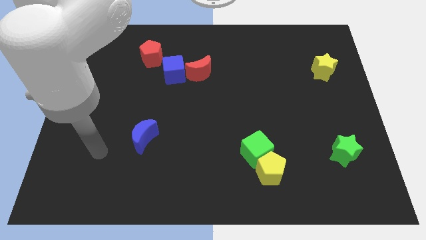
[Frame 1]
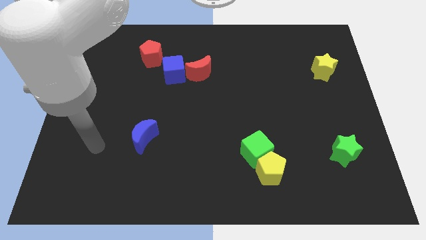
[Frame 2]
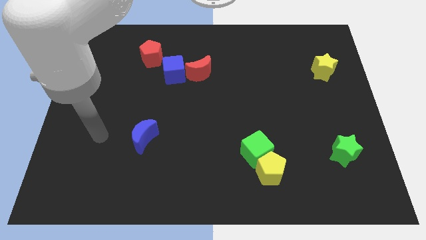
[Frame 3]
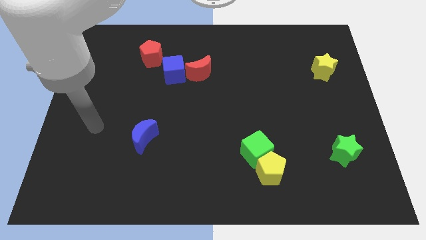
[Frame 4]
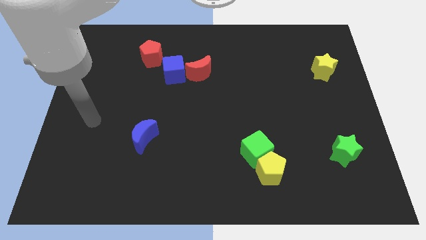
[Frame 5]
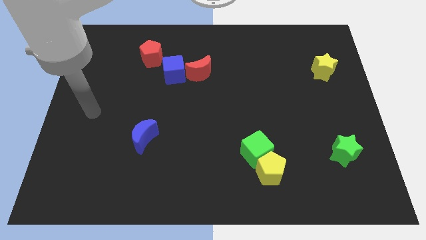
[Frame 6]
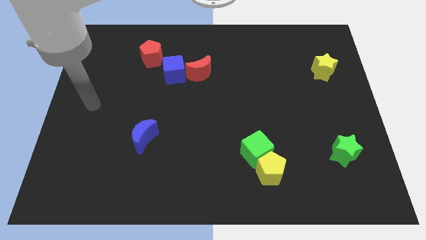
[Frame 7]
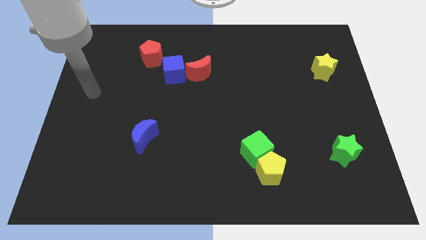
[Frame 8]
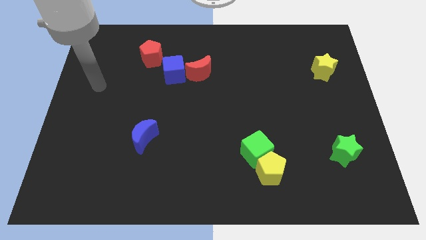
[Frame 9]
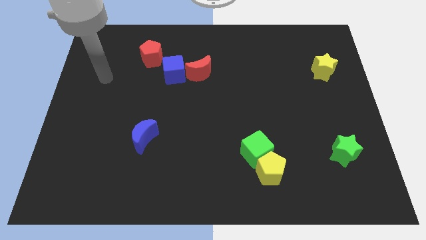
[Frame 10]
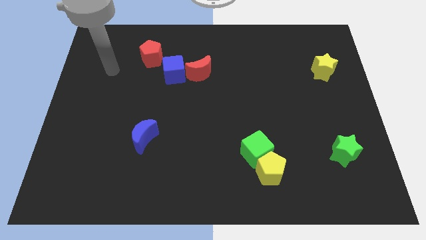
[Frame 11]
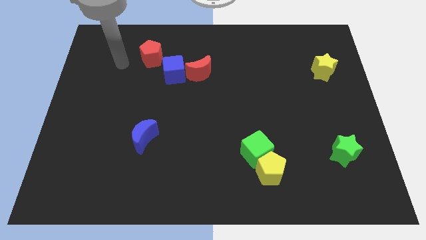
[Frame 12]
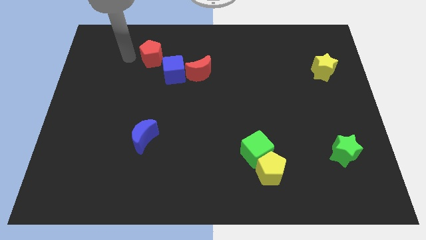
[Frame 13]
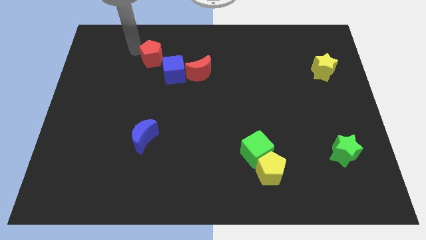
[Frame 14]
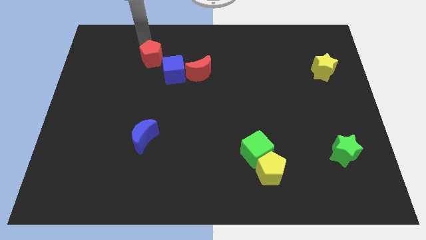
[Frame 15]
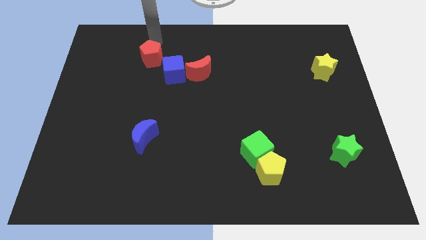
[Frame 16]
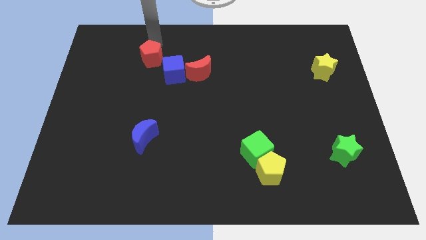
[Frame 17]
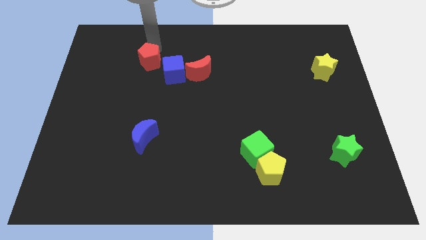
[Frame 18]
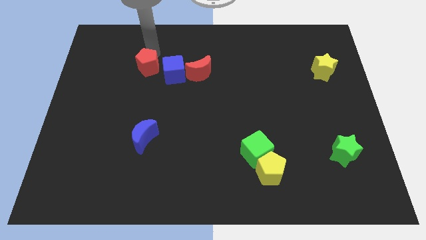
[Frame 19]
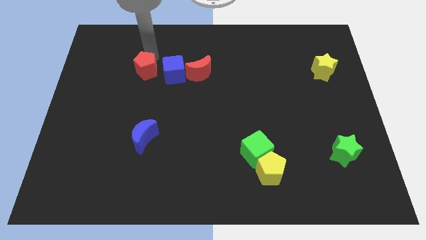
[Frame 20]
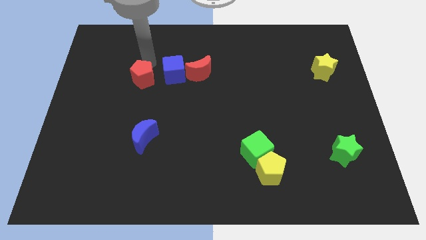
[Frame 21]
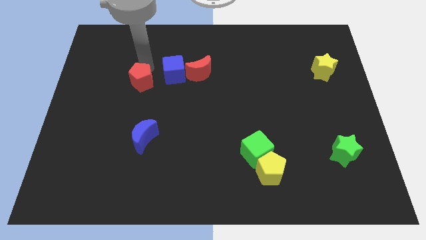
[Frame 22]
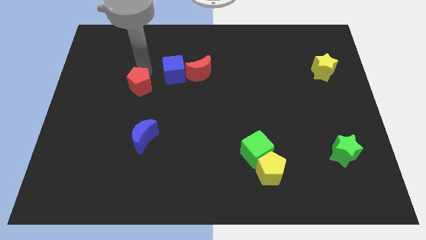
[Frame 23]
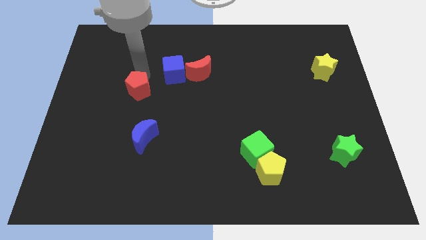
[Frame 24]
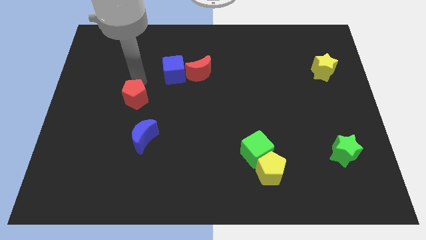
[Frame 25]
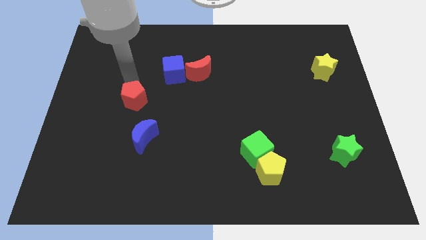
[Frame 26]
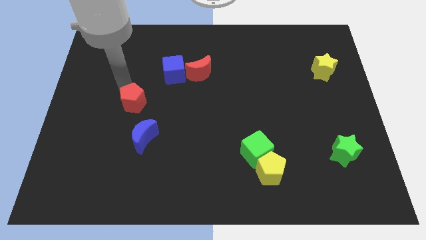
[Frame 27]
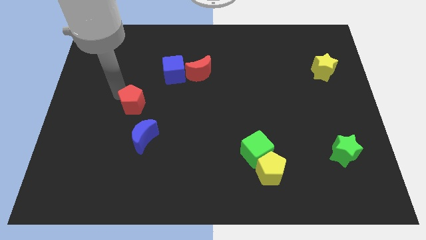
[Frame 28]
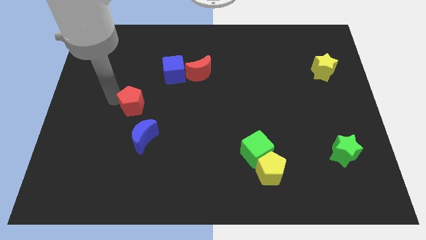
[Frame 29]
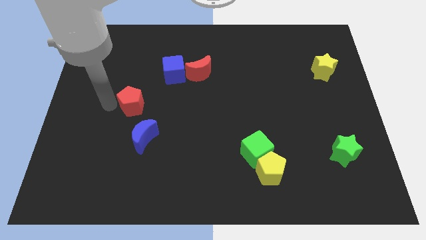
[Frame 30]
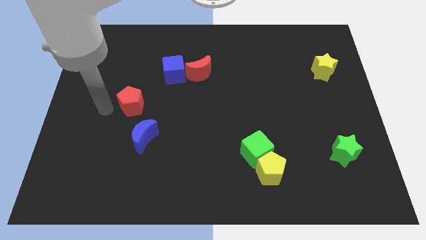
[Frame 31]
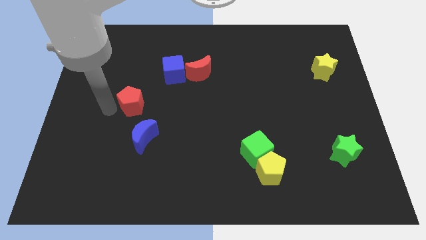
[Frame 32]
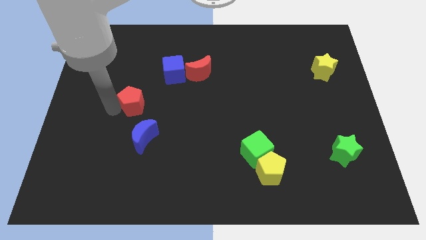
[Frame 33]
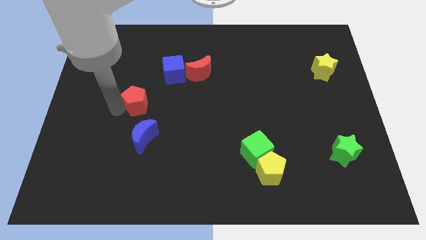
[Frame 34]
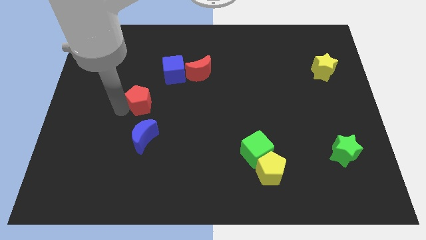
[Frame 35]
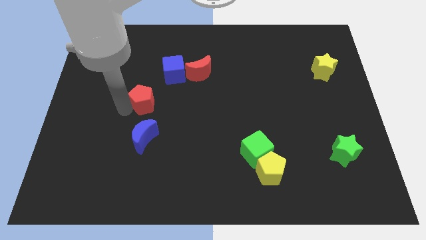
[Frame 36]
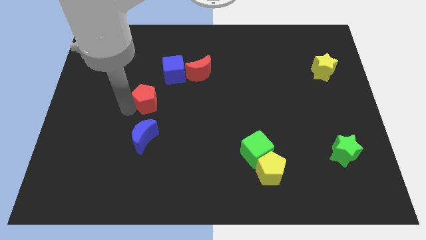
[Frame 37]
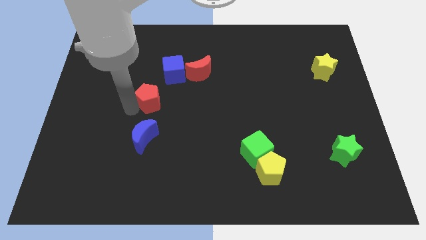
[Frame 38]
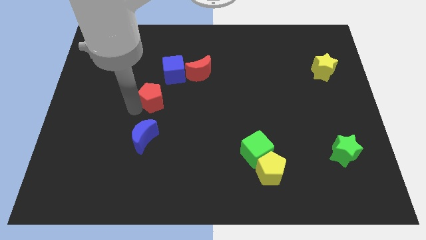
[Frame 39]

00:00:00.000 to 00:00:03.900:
move the red pentagon slightly down and to the right diagonally

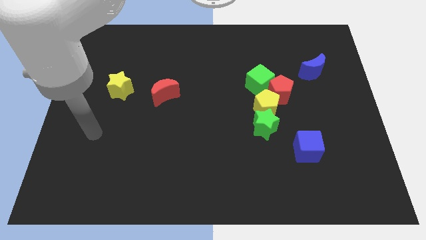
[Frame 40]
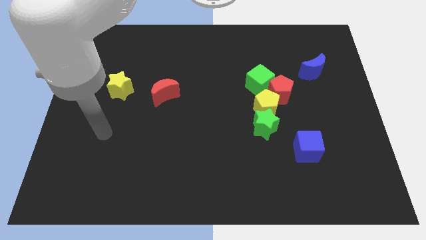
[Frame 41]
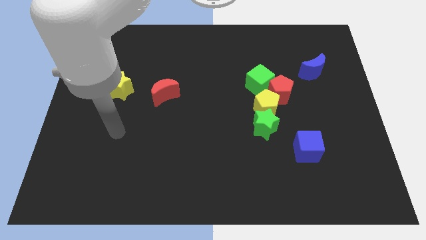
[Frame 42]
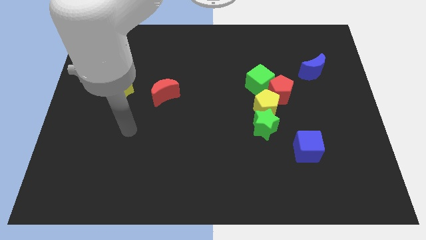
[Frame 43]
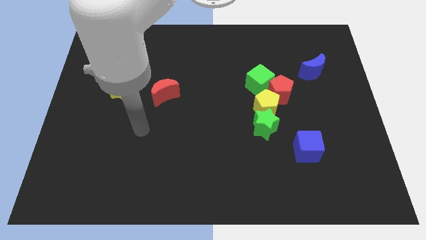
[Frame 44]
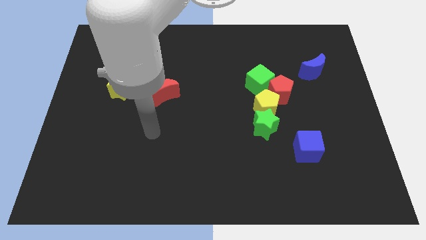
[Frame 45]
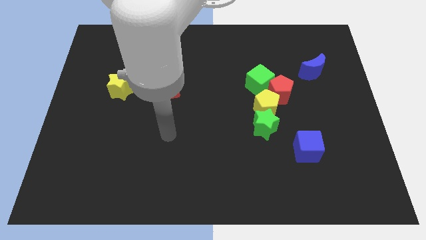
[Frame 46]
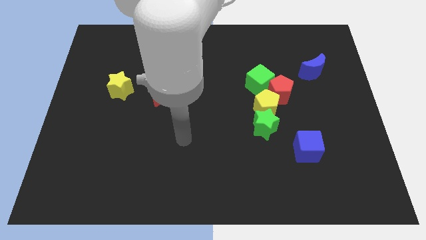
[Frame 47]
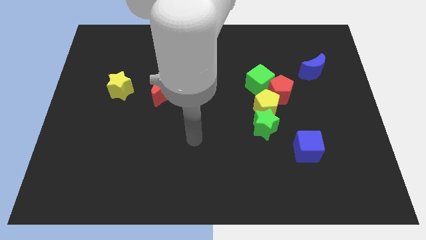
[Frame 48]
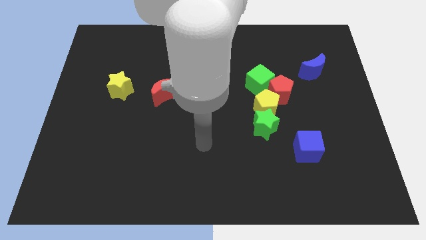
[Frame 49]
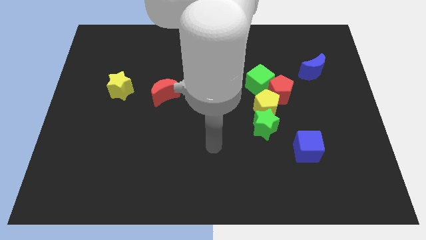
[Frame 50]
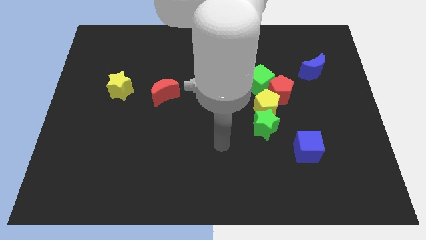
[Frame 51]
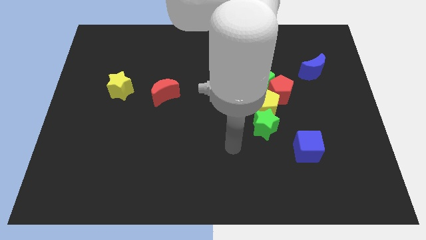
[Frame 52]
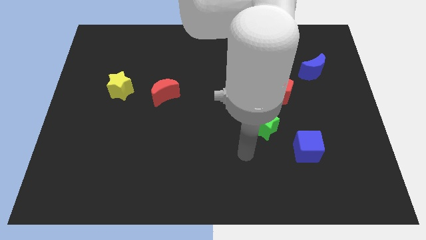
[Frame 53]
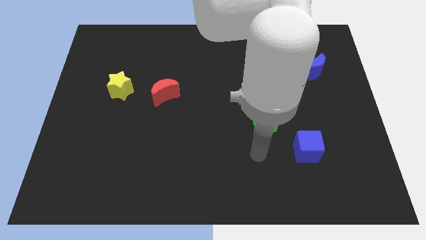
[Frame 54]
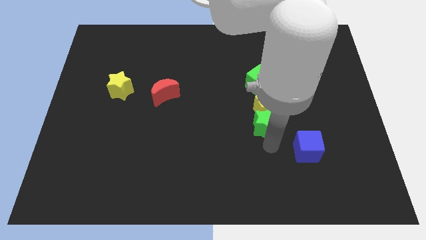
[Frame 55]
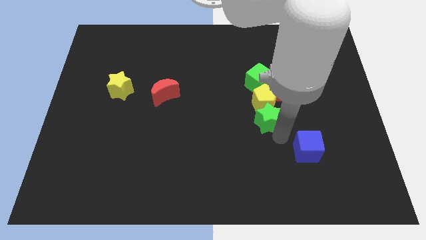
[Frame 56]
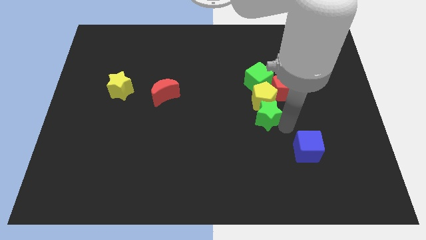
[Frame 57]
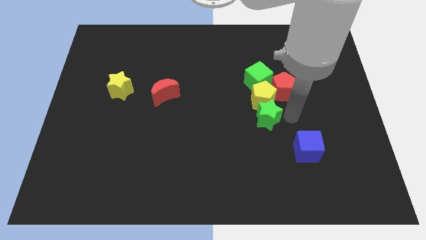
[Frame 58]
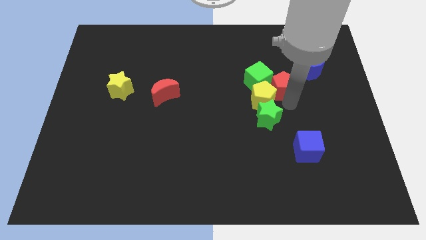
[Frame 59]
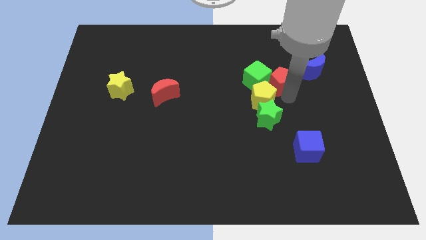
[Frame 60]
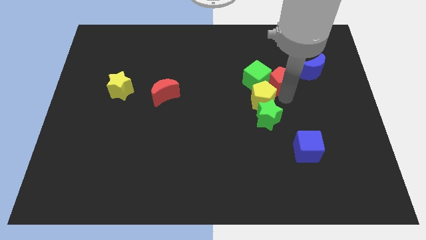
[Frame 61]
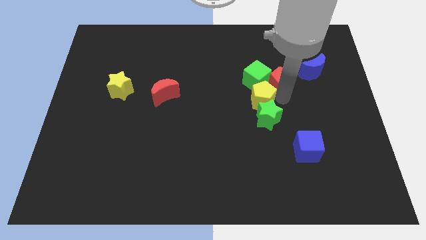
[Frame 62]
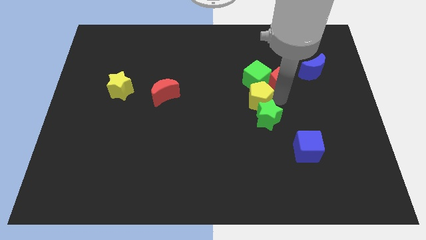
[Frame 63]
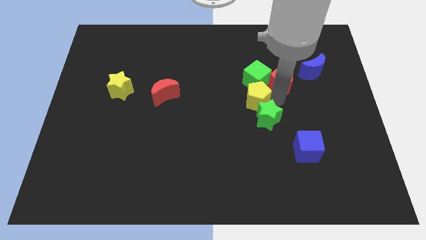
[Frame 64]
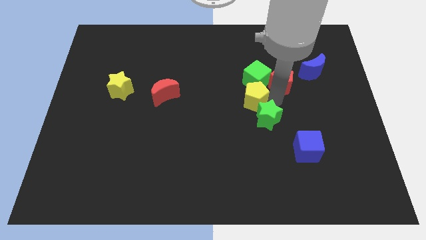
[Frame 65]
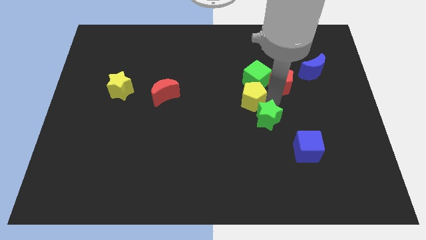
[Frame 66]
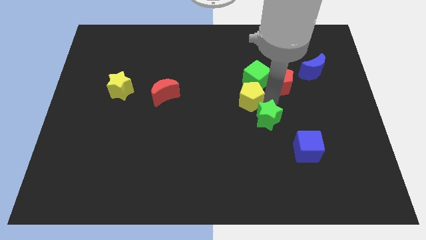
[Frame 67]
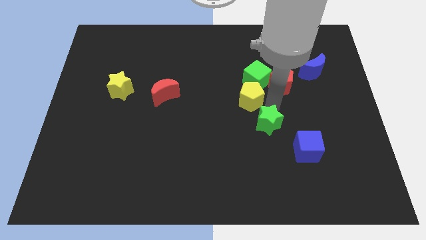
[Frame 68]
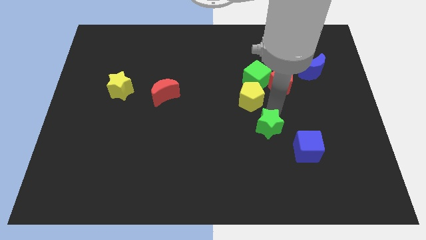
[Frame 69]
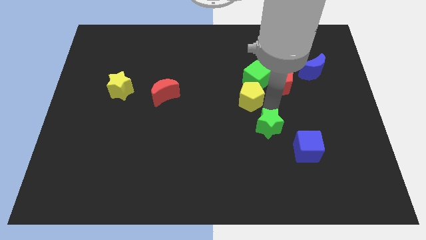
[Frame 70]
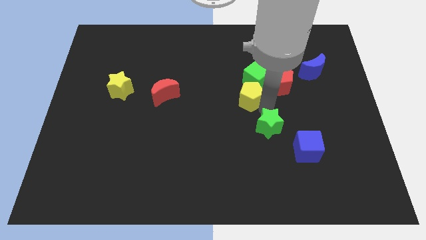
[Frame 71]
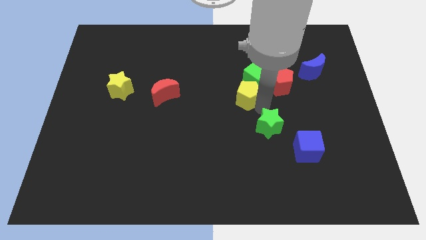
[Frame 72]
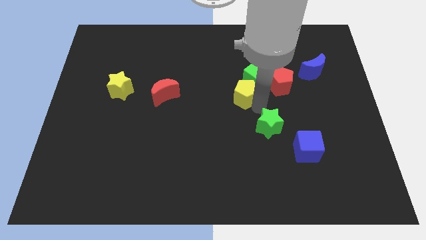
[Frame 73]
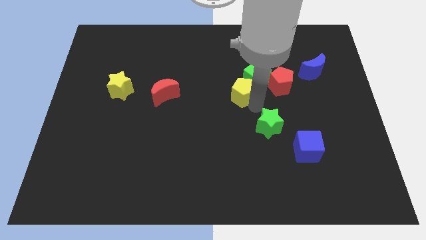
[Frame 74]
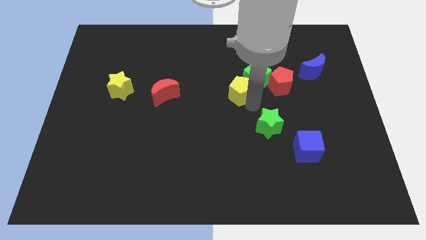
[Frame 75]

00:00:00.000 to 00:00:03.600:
slide the yellow pentagon diagonally upwards and to the left somewhat

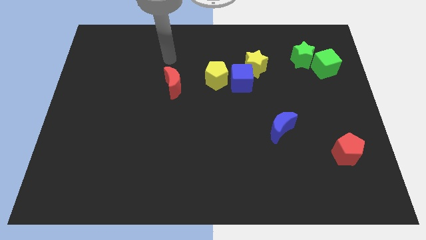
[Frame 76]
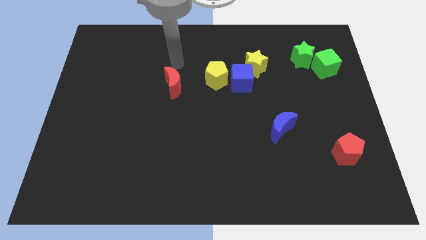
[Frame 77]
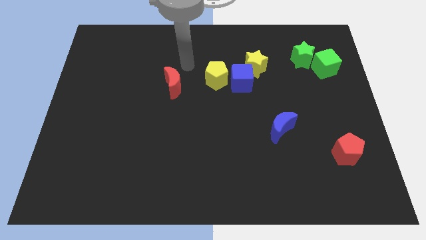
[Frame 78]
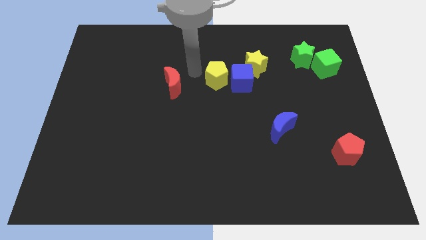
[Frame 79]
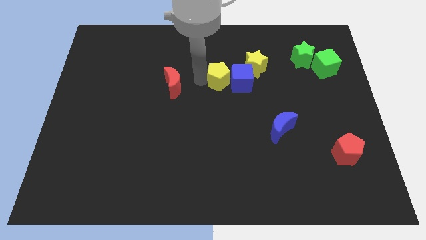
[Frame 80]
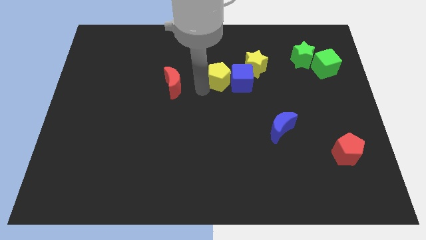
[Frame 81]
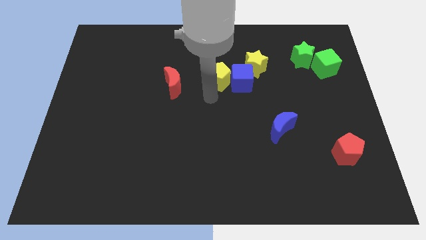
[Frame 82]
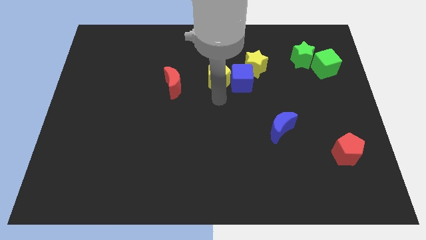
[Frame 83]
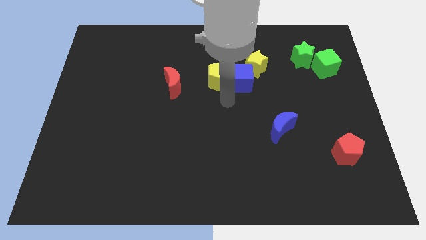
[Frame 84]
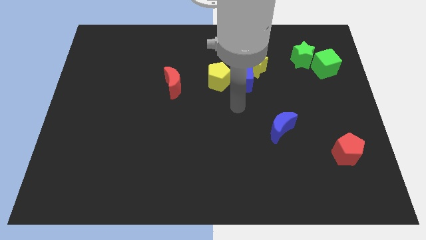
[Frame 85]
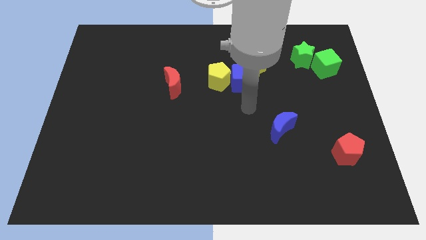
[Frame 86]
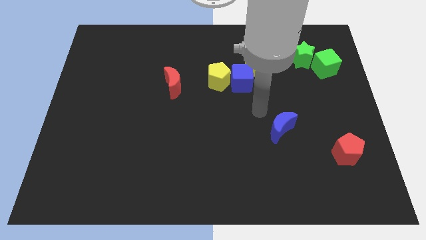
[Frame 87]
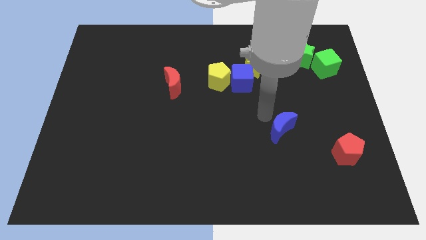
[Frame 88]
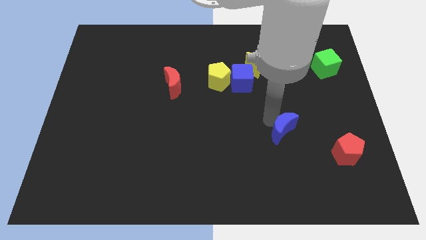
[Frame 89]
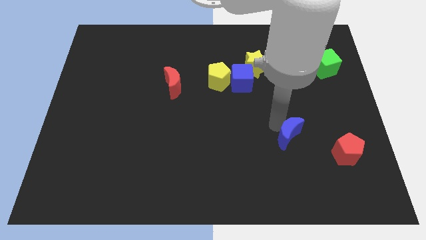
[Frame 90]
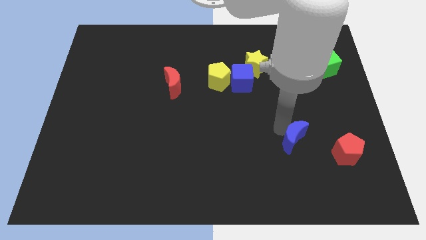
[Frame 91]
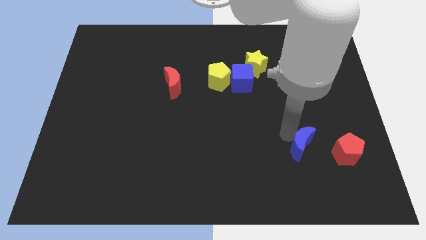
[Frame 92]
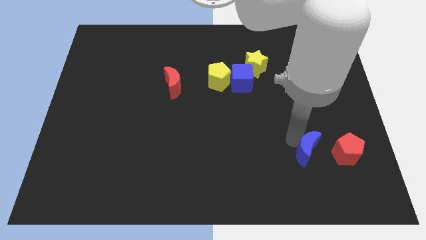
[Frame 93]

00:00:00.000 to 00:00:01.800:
slightly move the blue moon diagonally downwards and right
